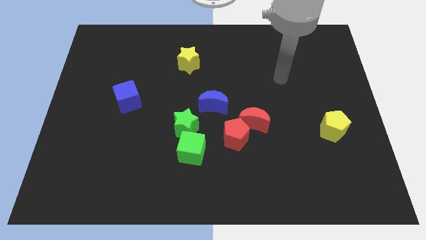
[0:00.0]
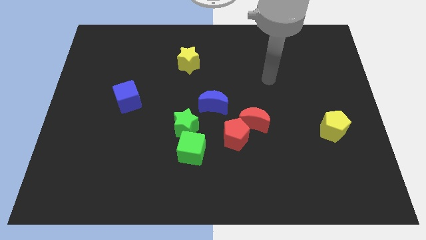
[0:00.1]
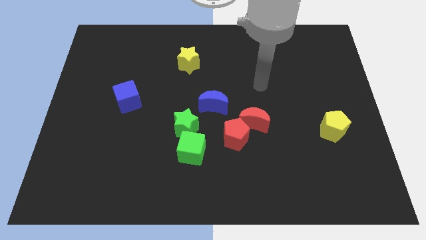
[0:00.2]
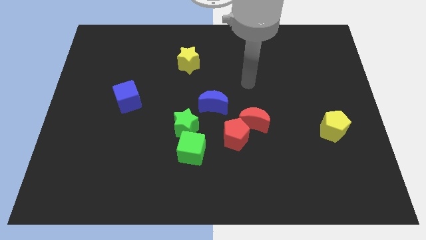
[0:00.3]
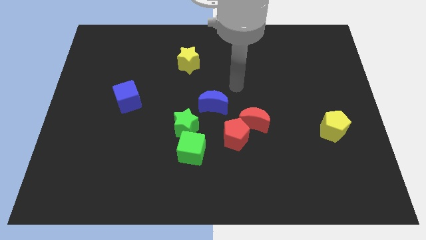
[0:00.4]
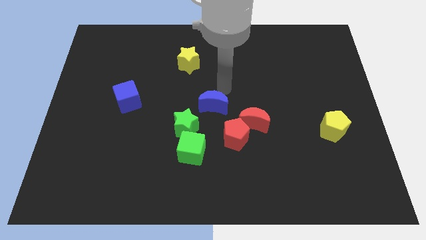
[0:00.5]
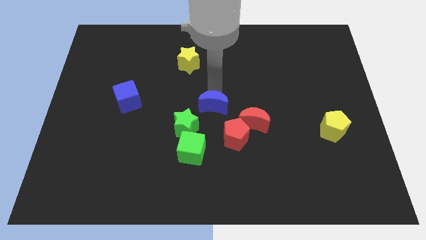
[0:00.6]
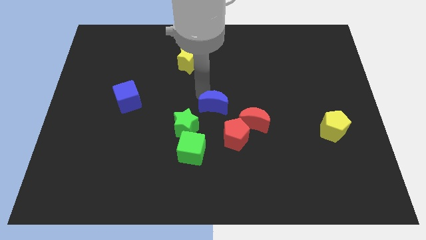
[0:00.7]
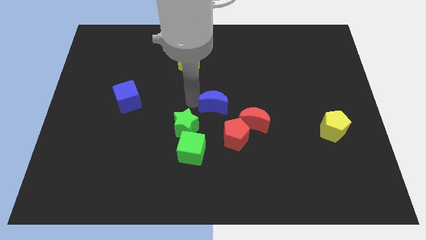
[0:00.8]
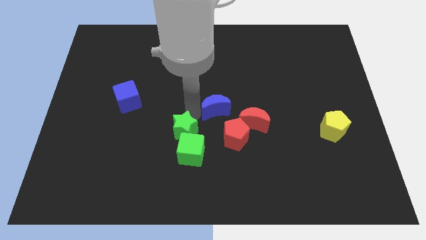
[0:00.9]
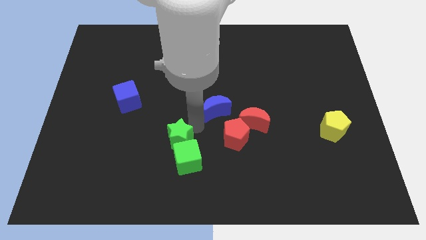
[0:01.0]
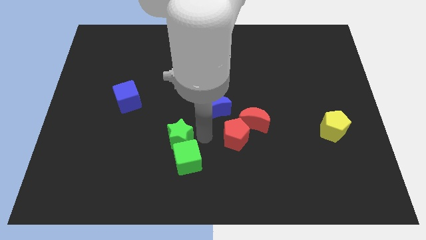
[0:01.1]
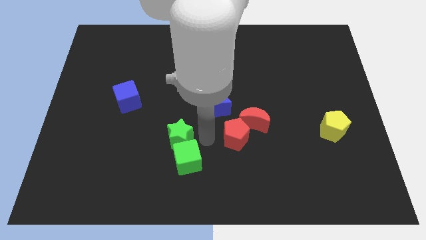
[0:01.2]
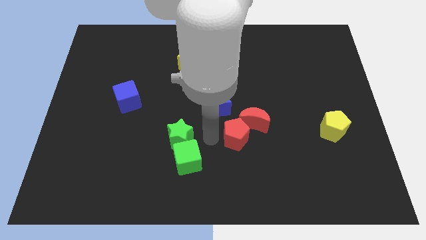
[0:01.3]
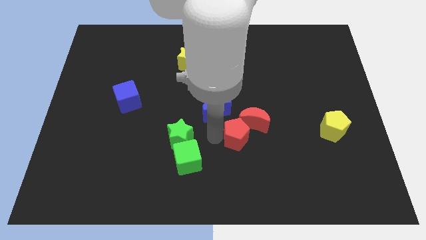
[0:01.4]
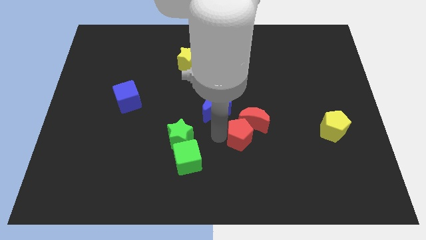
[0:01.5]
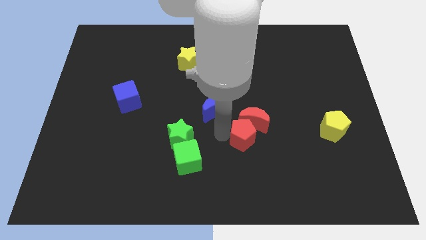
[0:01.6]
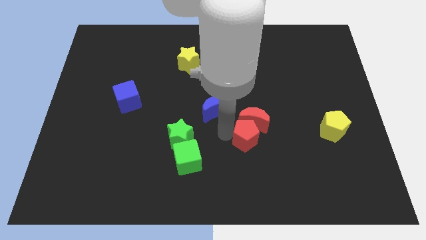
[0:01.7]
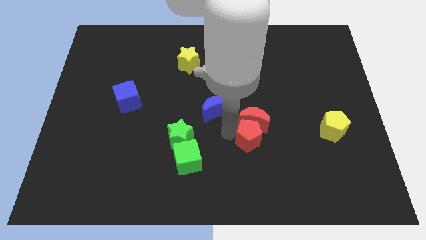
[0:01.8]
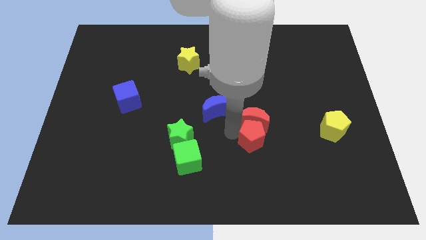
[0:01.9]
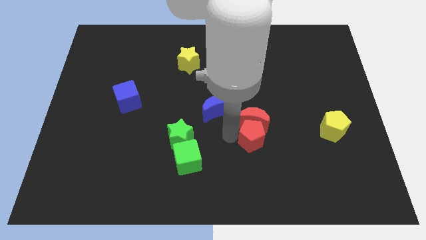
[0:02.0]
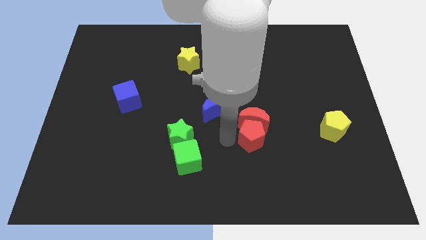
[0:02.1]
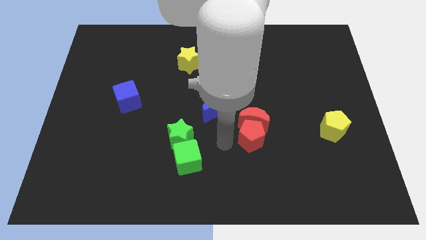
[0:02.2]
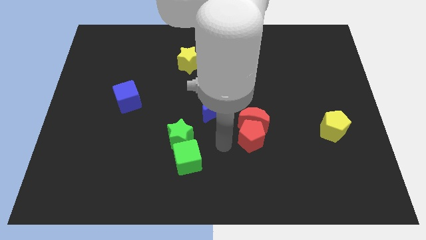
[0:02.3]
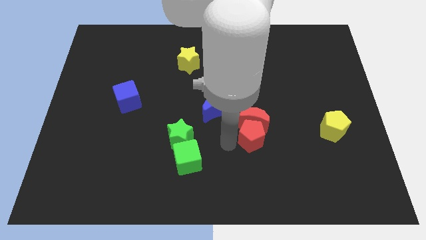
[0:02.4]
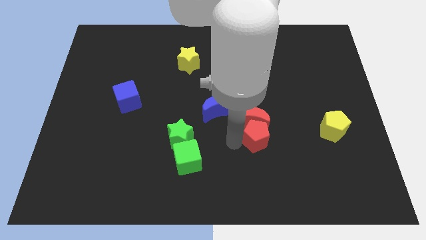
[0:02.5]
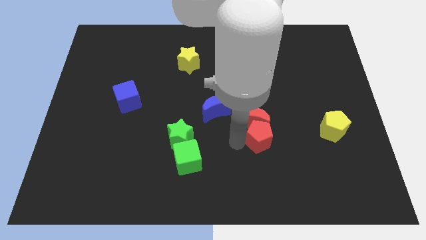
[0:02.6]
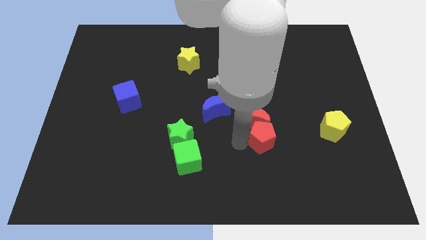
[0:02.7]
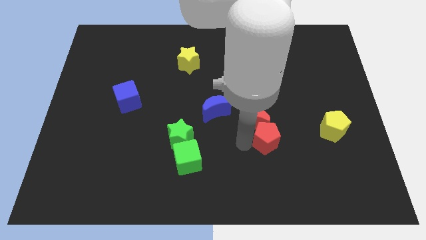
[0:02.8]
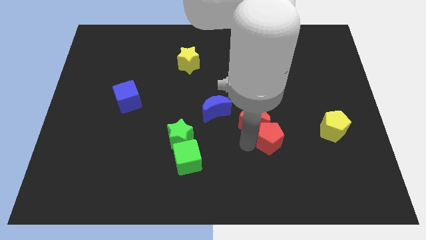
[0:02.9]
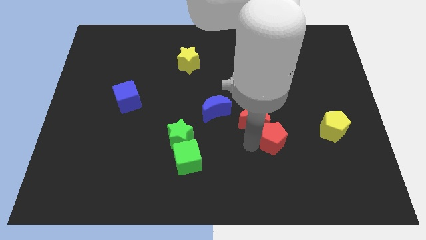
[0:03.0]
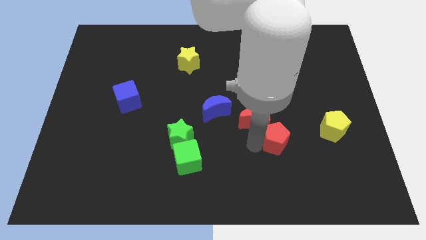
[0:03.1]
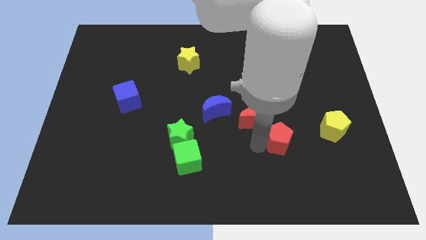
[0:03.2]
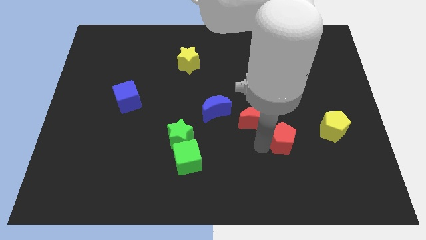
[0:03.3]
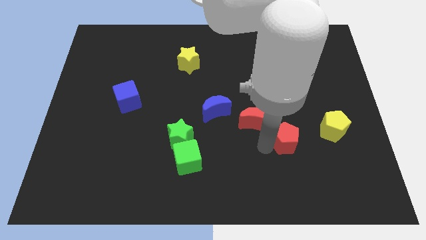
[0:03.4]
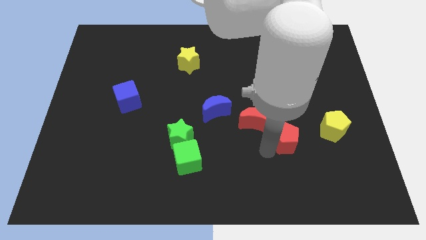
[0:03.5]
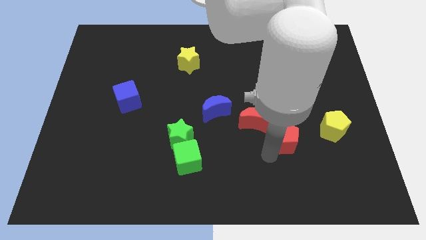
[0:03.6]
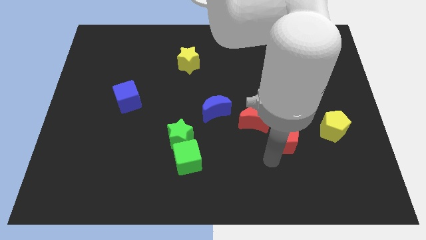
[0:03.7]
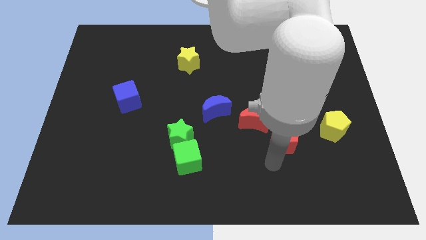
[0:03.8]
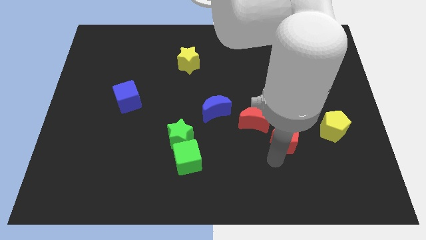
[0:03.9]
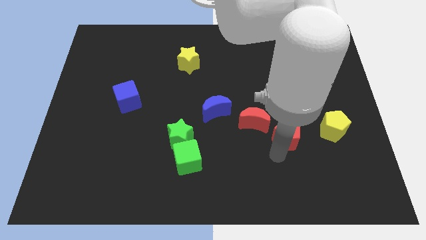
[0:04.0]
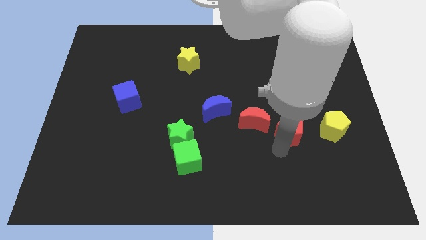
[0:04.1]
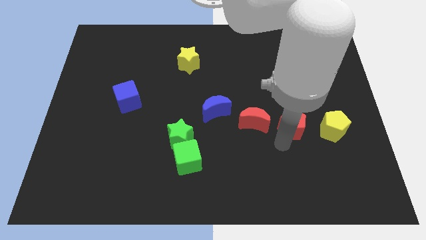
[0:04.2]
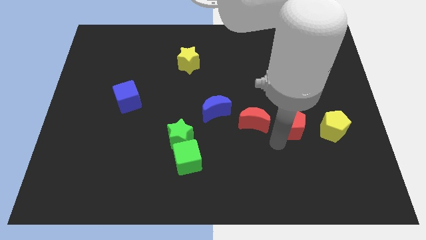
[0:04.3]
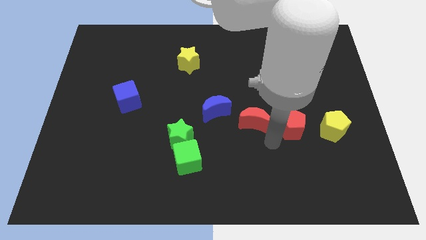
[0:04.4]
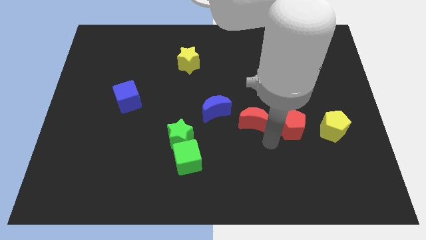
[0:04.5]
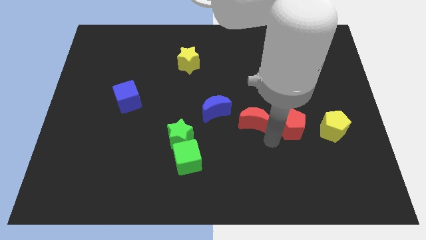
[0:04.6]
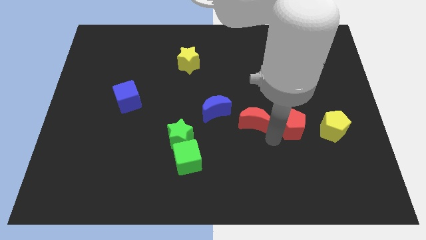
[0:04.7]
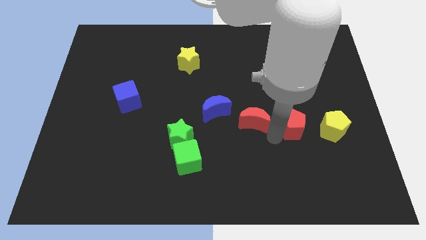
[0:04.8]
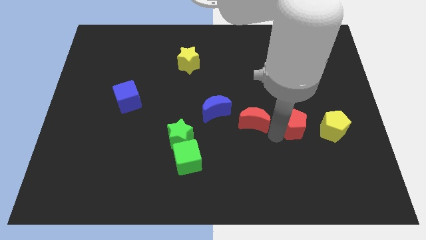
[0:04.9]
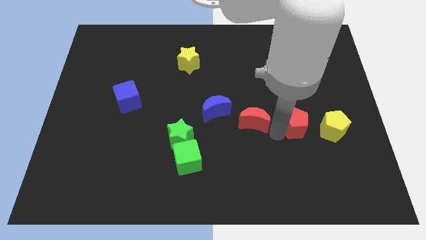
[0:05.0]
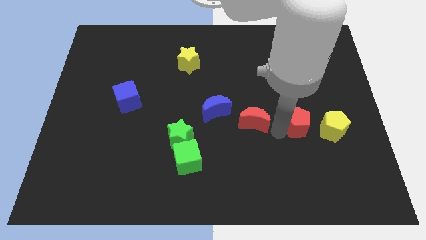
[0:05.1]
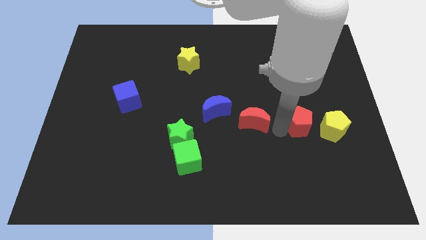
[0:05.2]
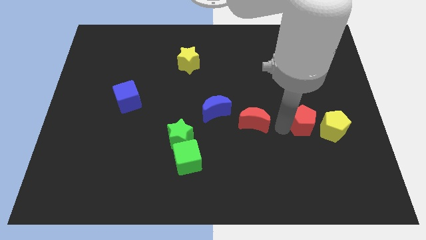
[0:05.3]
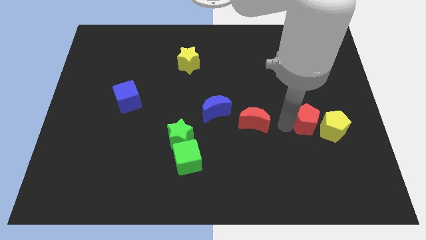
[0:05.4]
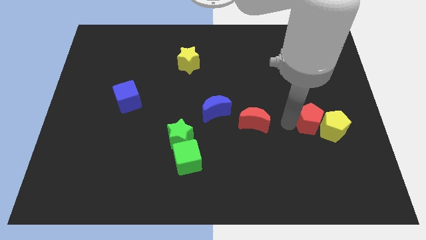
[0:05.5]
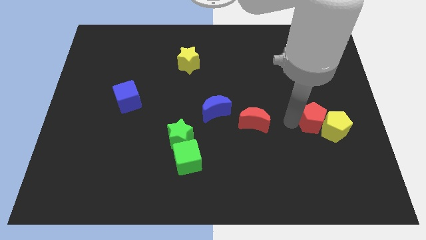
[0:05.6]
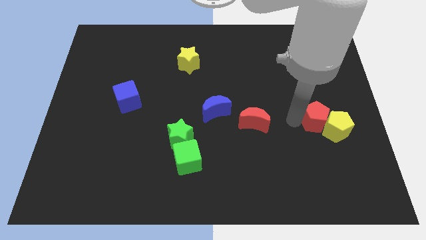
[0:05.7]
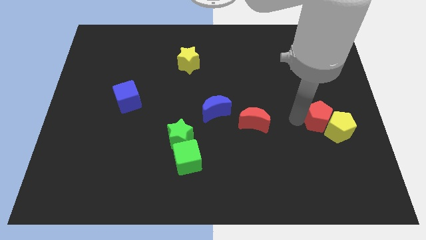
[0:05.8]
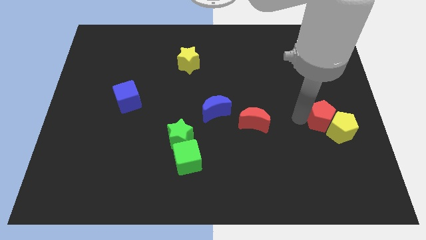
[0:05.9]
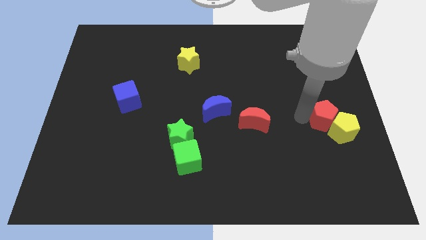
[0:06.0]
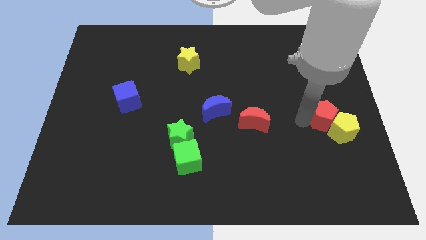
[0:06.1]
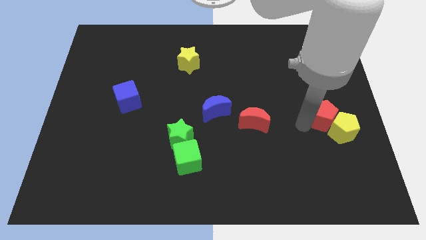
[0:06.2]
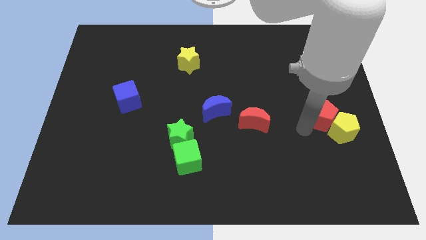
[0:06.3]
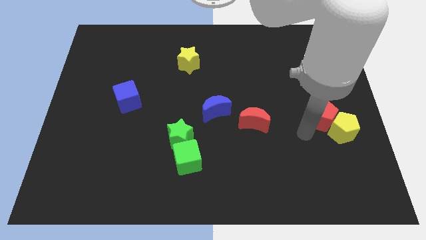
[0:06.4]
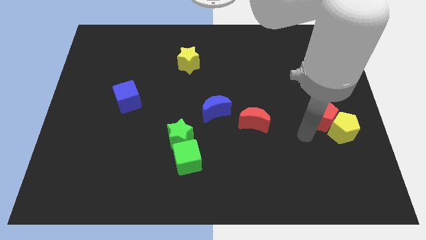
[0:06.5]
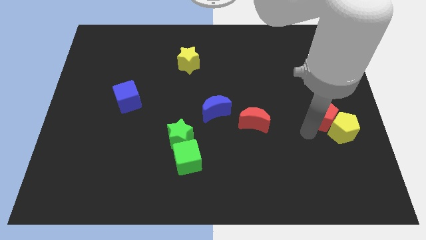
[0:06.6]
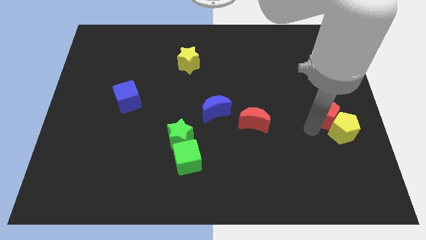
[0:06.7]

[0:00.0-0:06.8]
push the red pentagon to the center right
